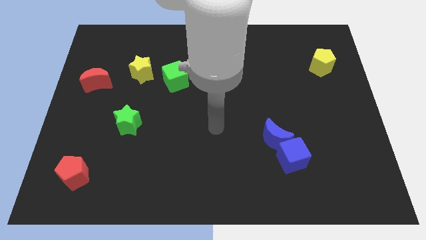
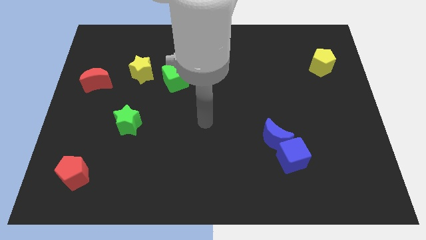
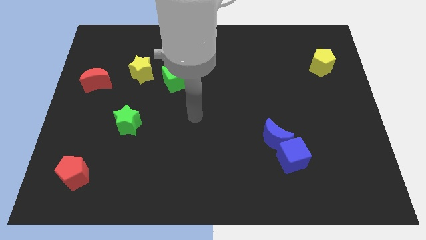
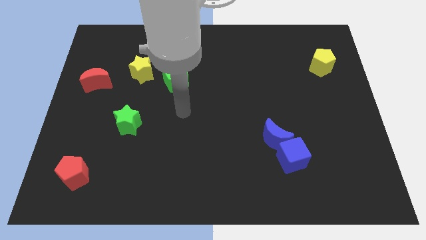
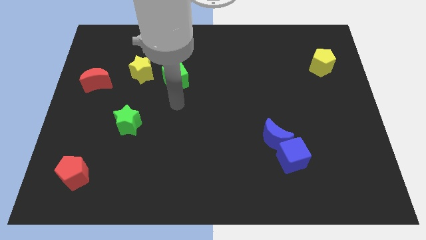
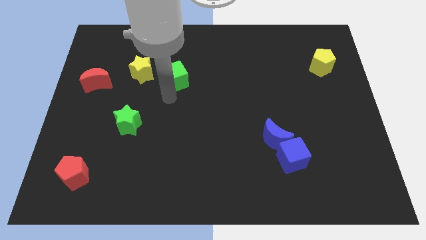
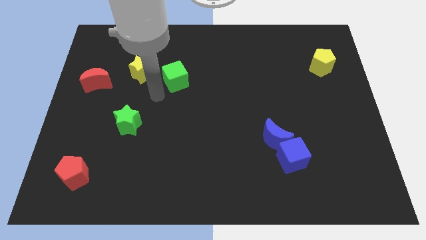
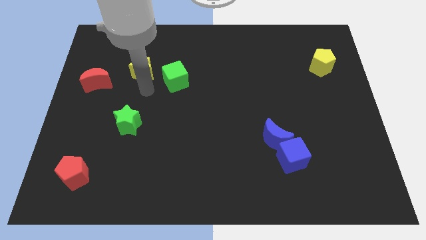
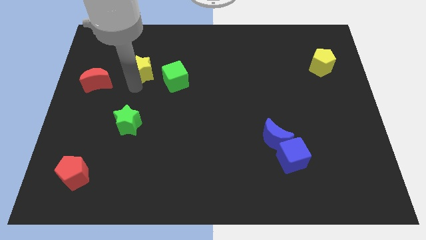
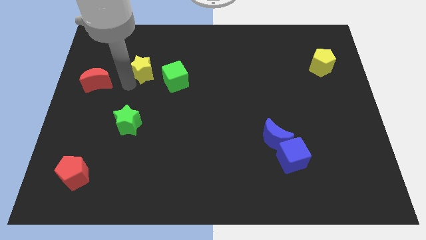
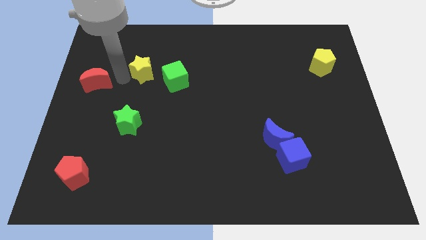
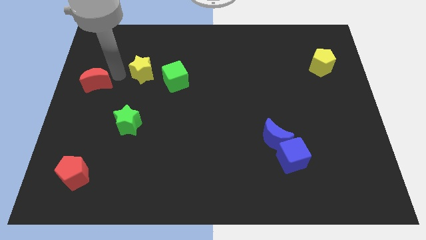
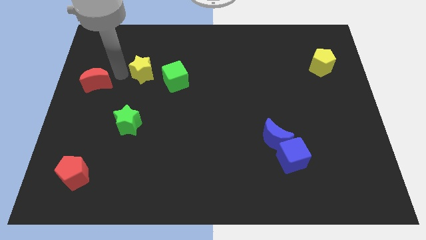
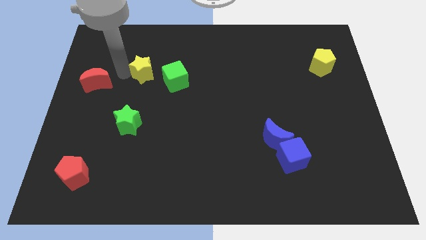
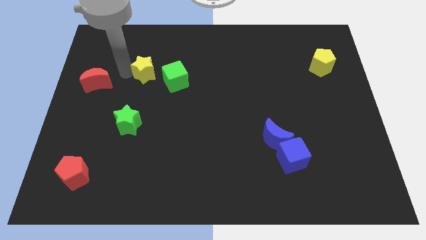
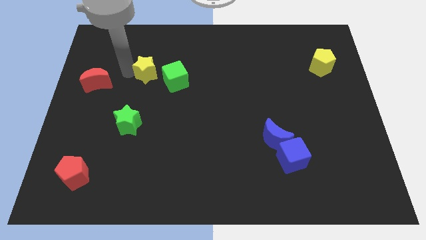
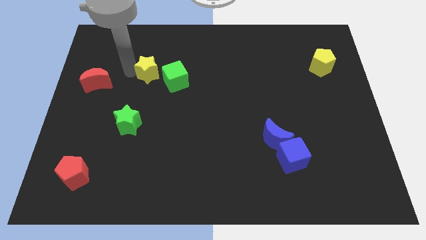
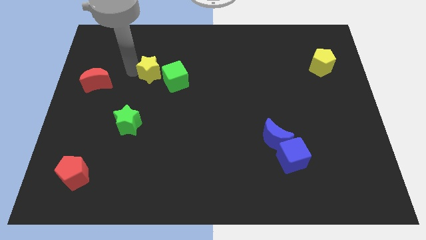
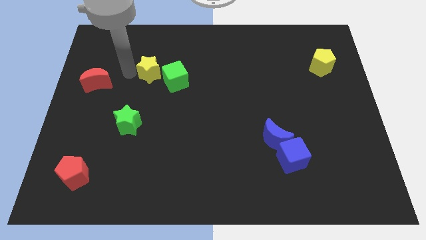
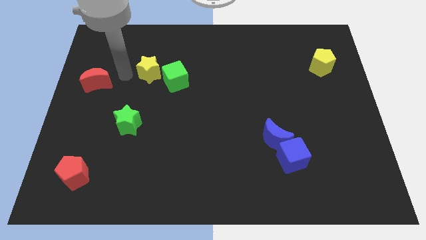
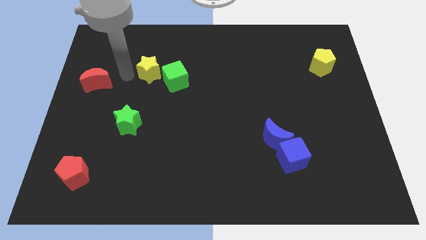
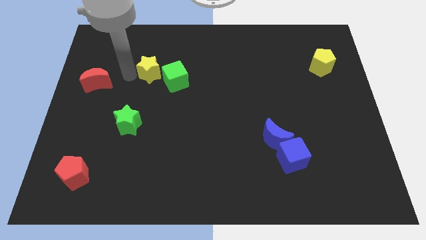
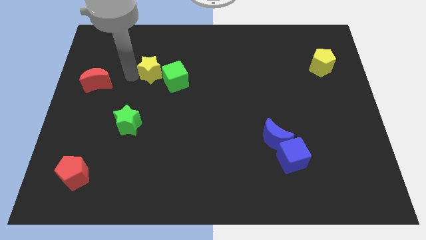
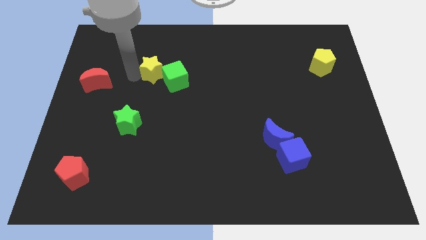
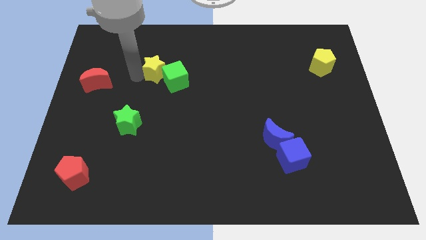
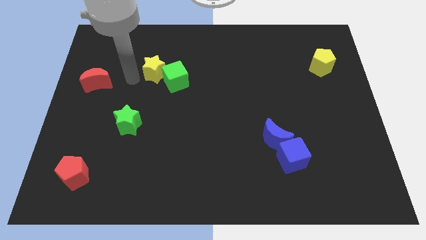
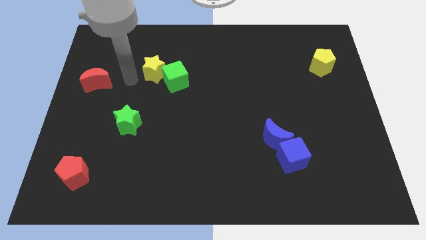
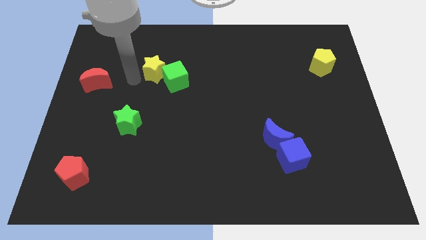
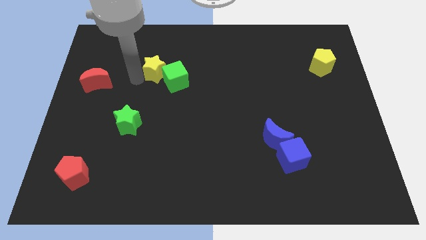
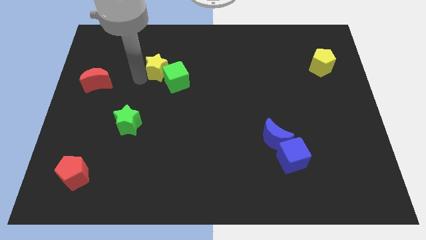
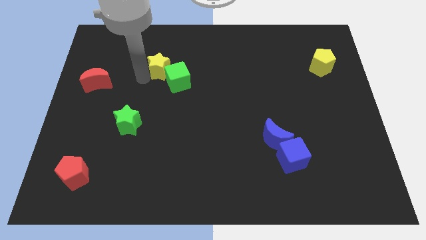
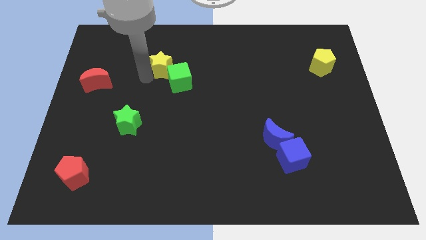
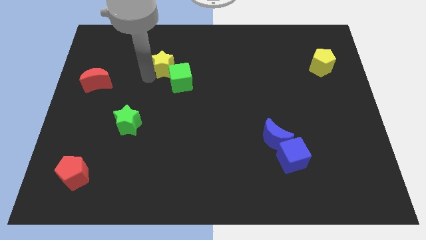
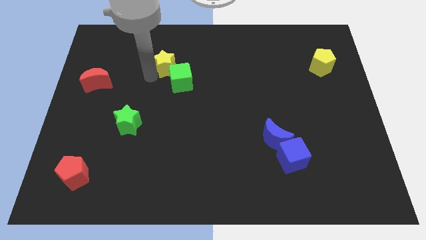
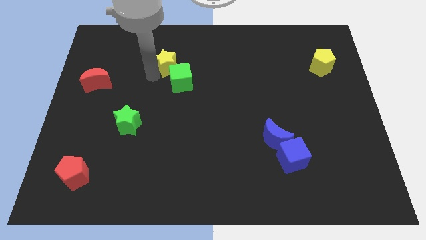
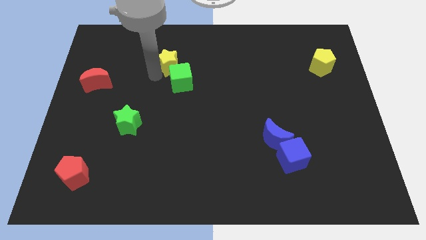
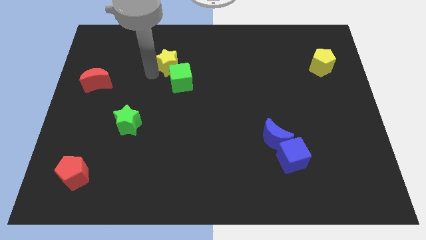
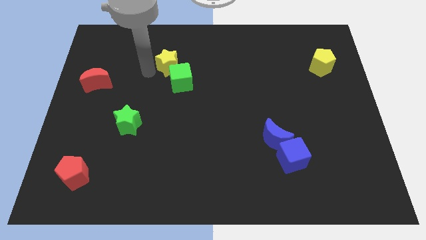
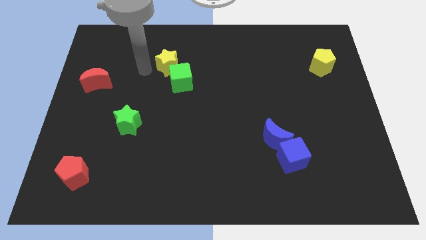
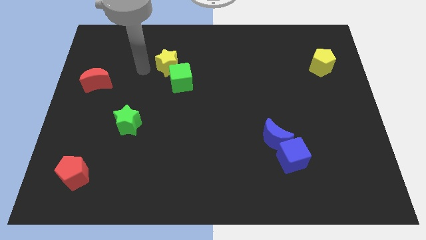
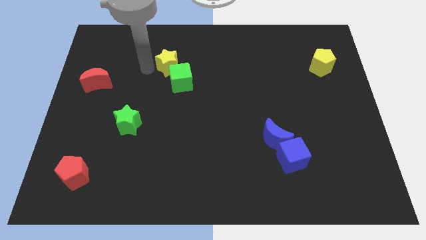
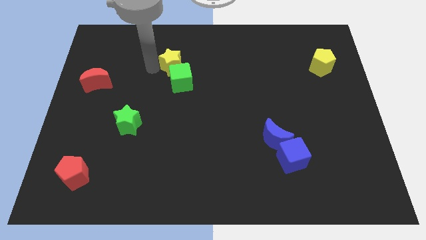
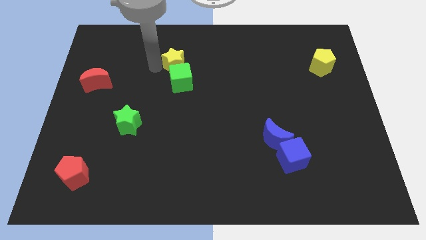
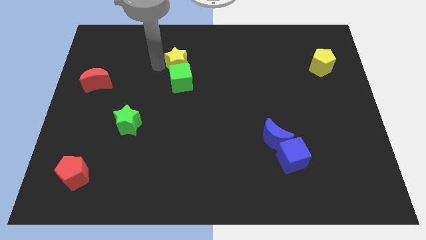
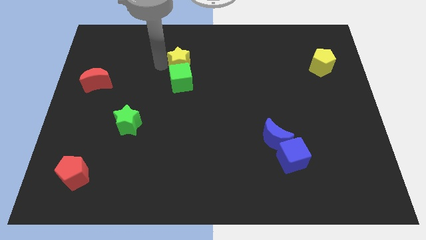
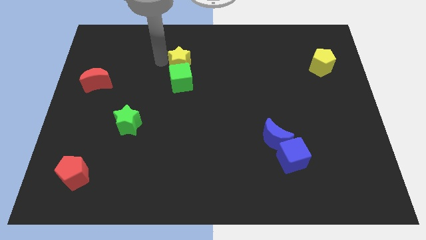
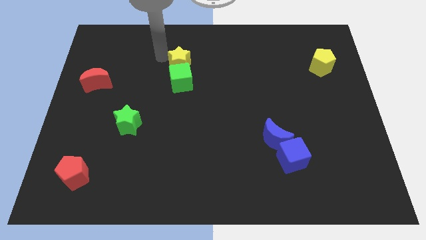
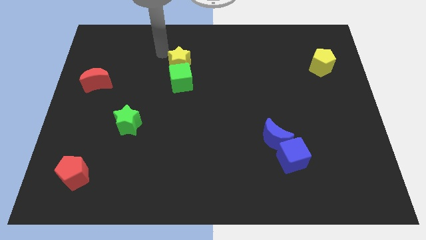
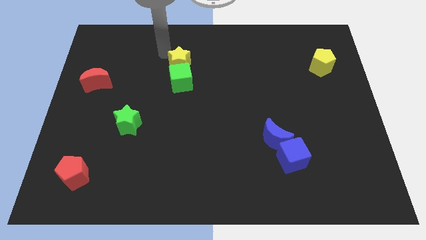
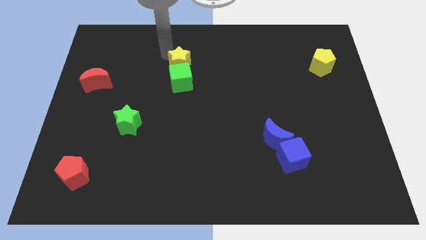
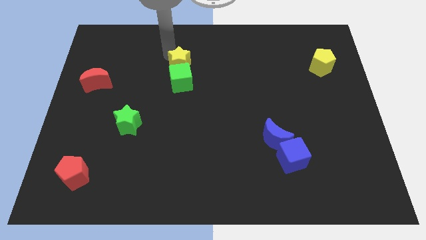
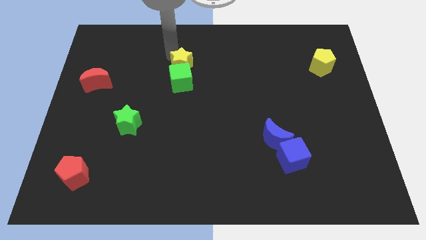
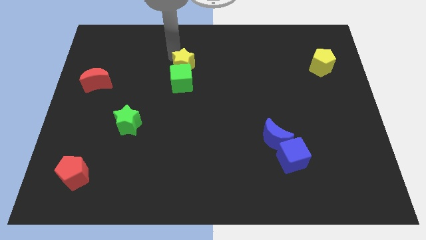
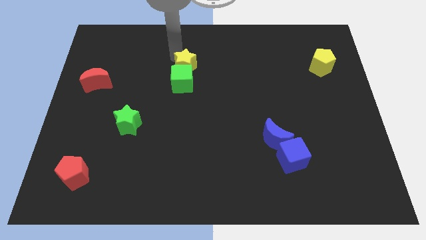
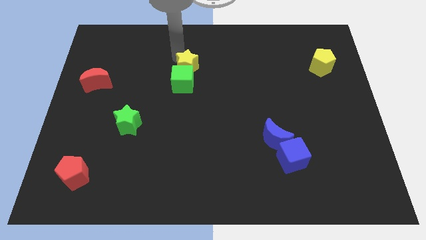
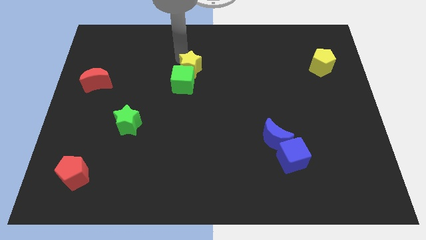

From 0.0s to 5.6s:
slide the yellow star to the center of the board

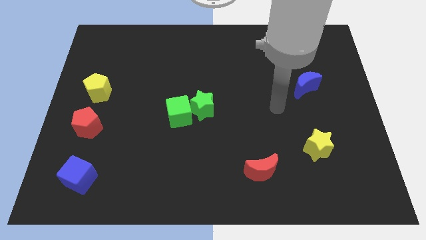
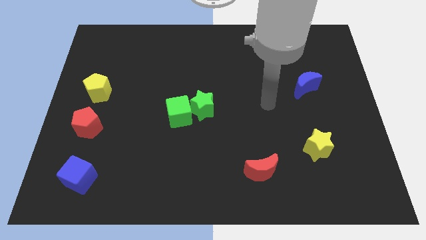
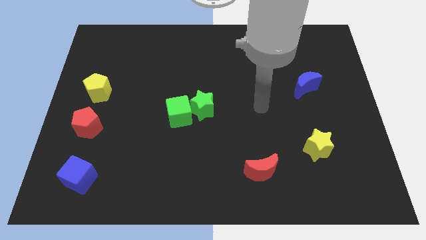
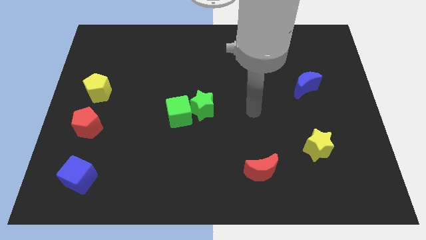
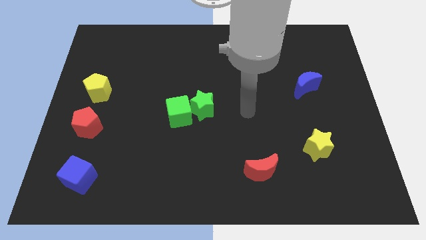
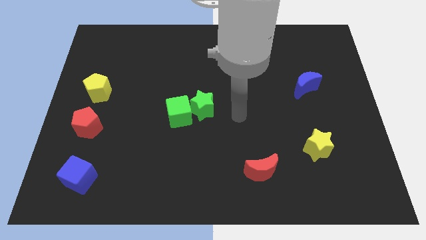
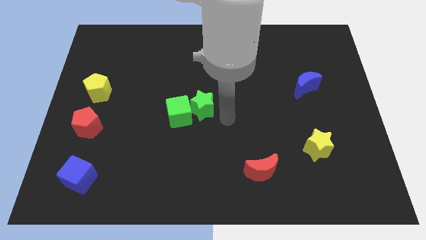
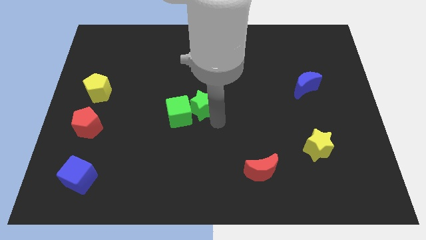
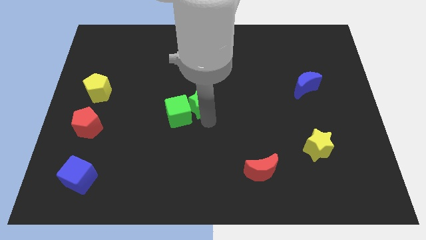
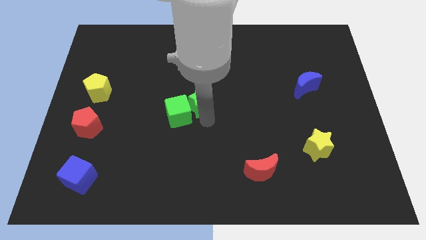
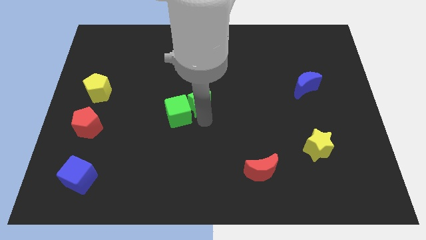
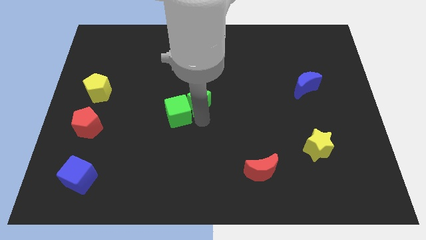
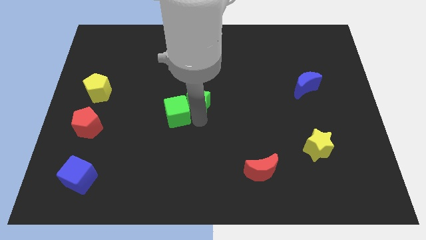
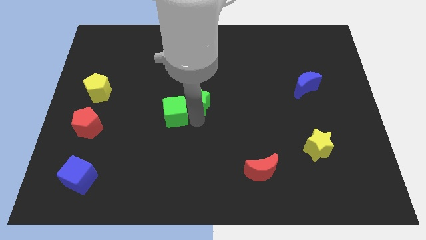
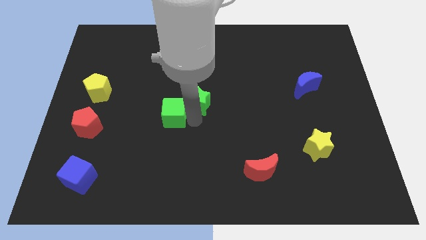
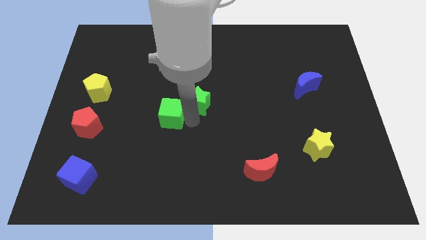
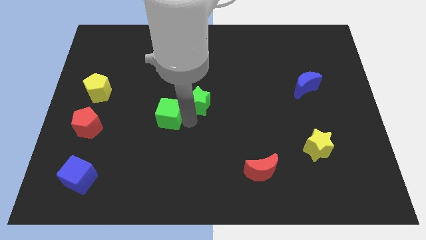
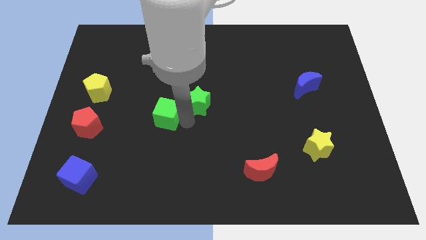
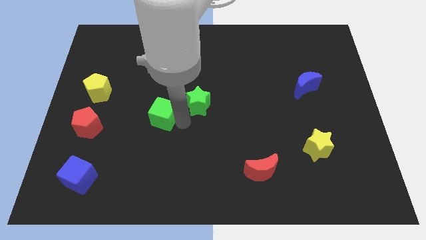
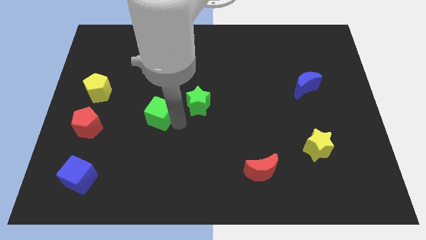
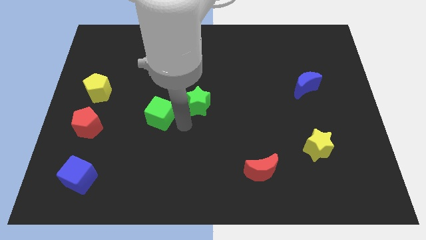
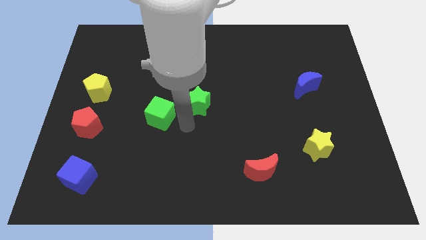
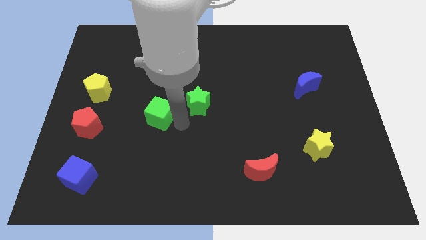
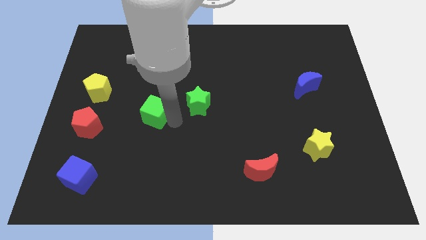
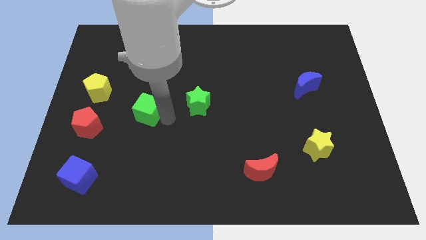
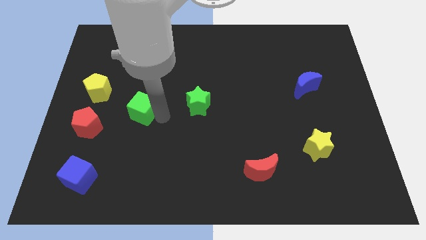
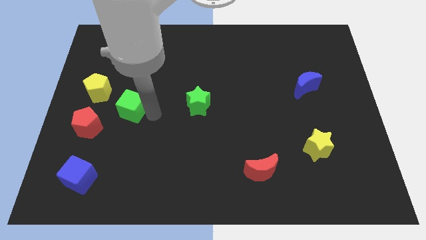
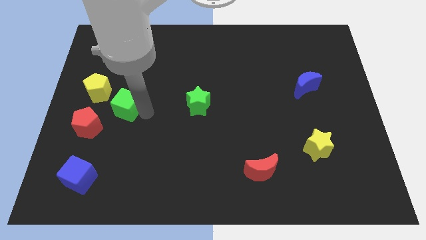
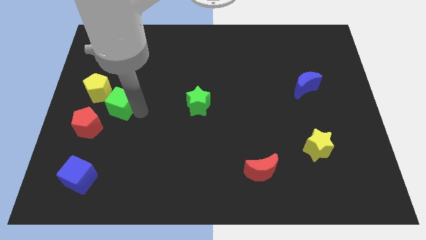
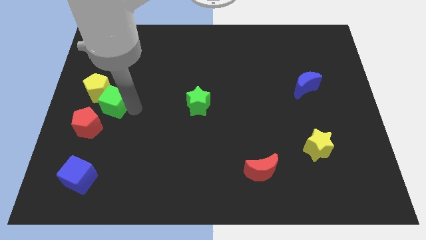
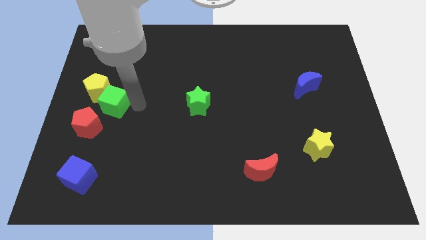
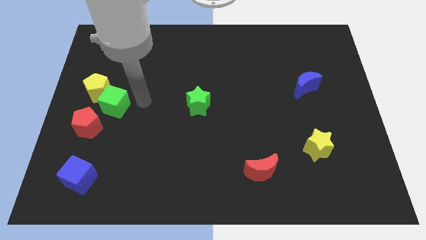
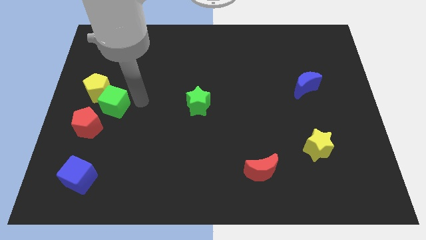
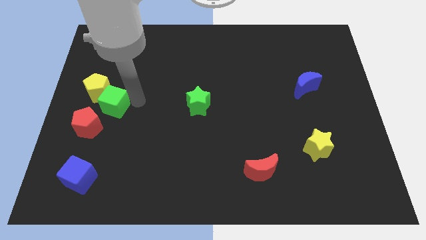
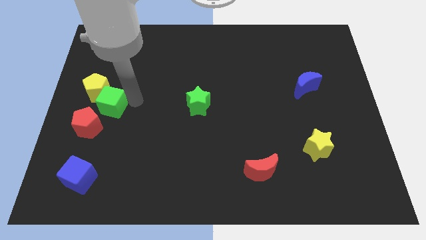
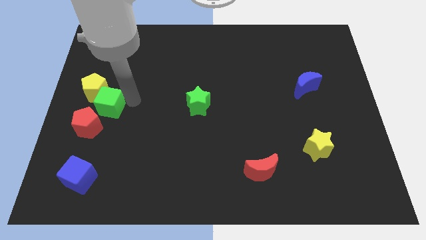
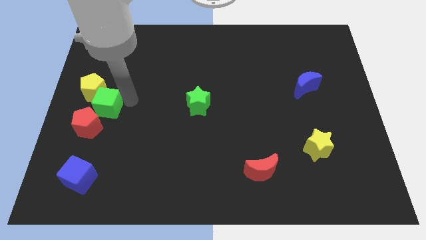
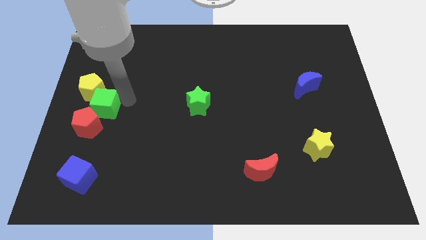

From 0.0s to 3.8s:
slide the green cube to the left side
